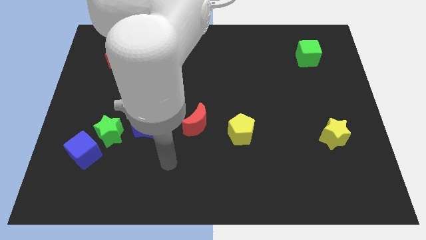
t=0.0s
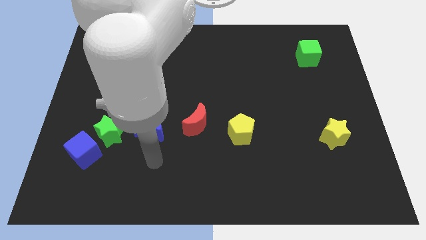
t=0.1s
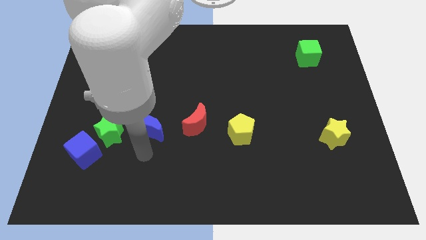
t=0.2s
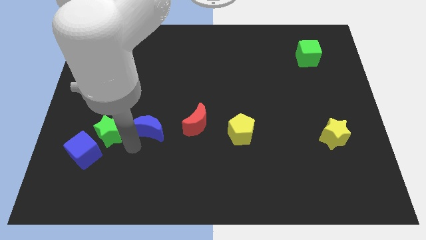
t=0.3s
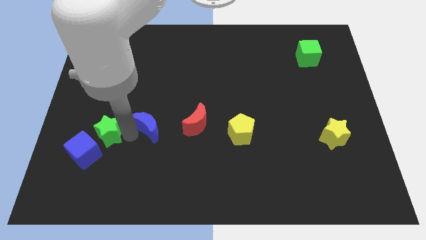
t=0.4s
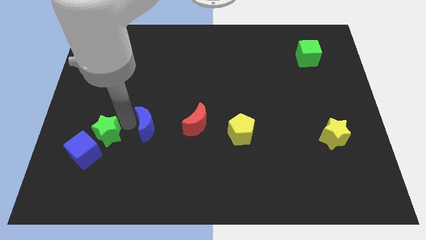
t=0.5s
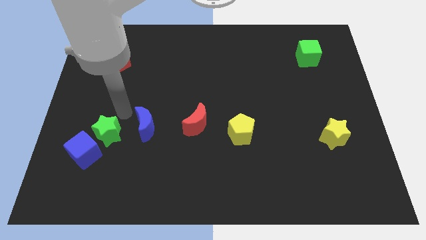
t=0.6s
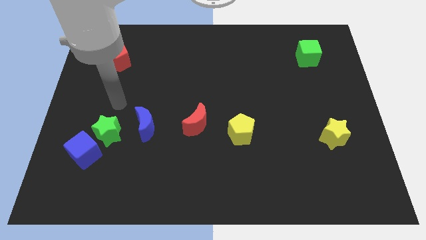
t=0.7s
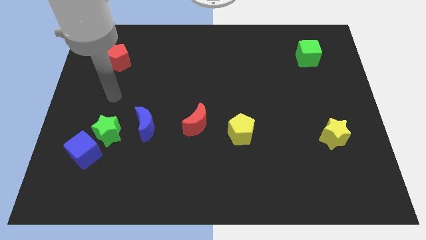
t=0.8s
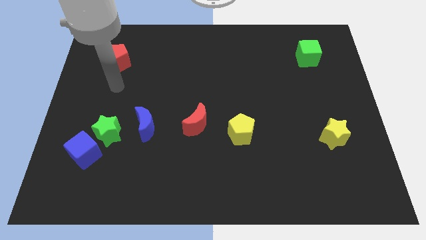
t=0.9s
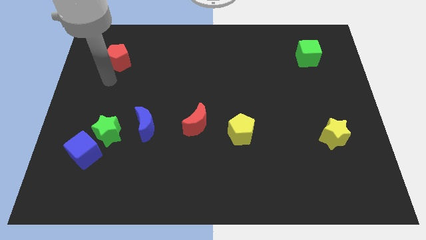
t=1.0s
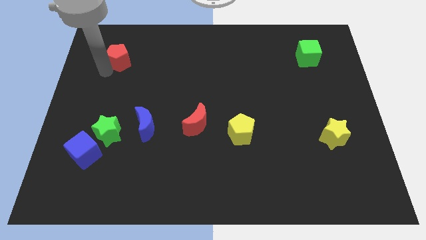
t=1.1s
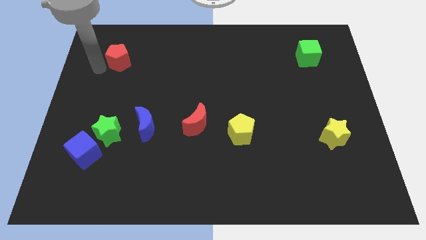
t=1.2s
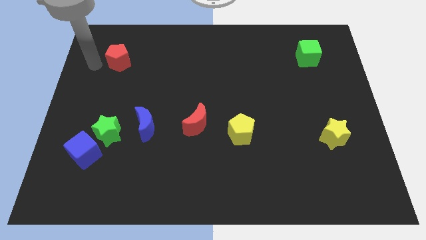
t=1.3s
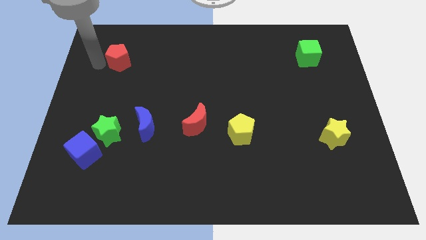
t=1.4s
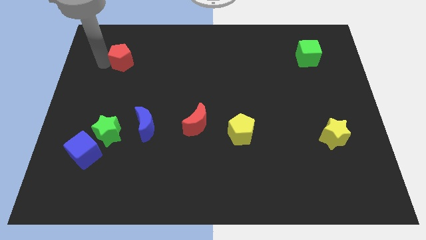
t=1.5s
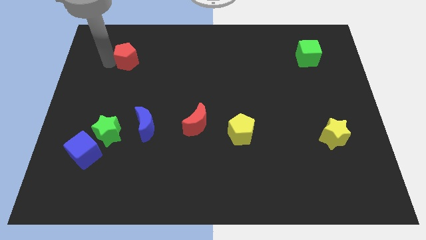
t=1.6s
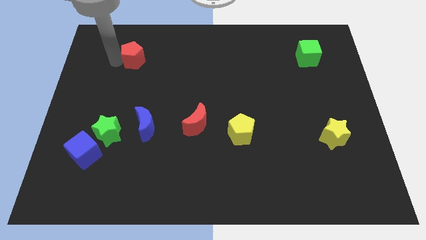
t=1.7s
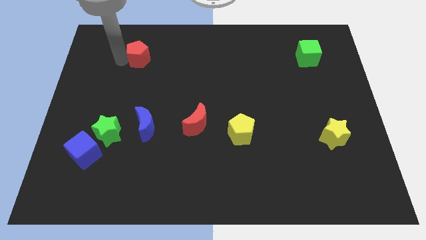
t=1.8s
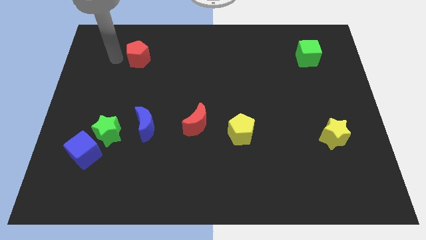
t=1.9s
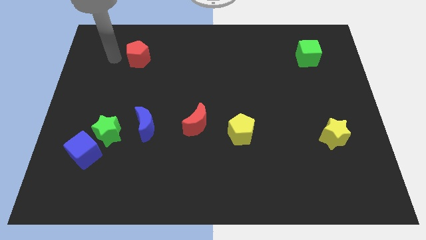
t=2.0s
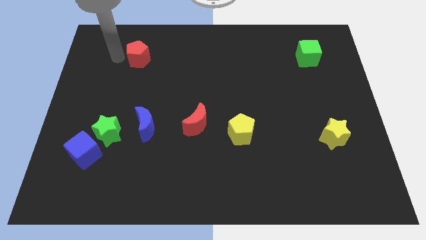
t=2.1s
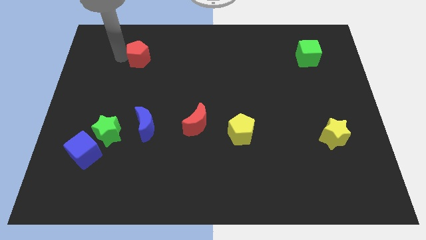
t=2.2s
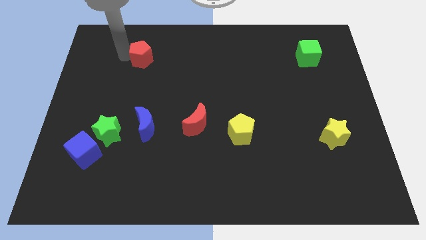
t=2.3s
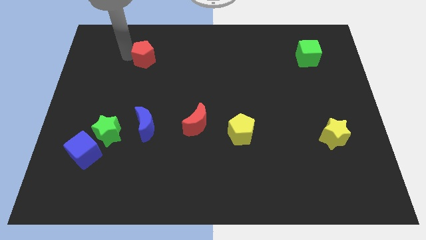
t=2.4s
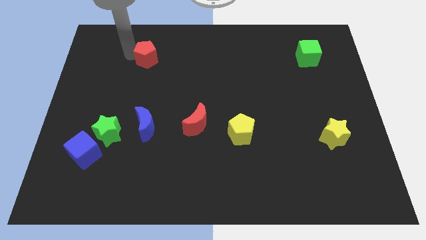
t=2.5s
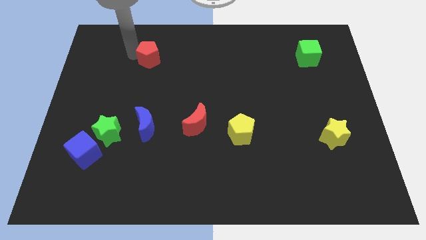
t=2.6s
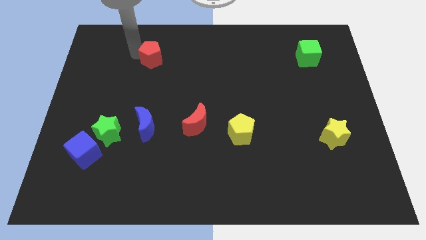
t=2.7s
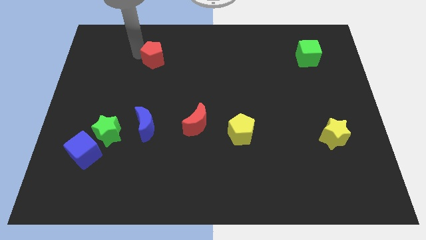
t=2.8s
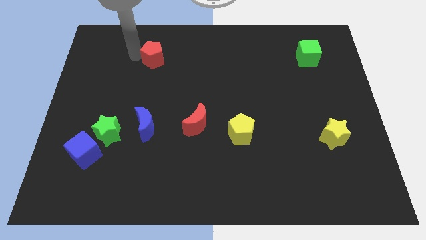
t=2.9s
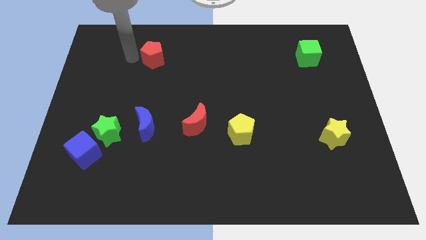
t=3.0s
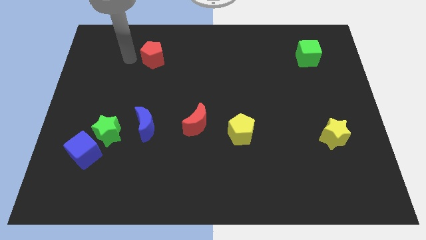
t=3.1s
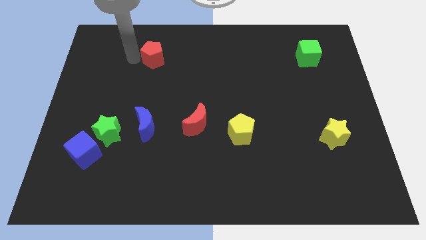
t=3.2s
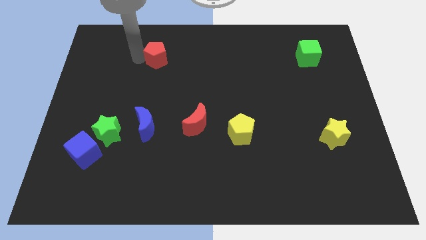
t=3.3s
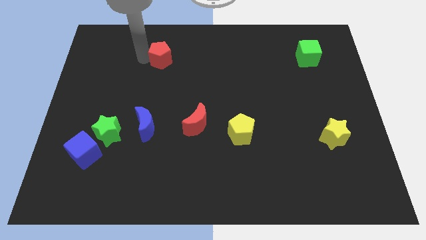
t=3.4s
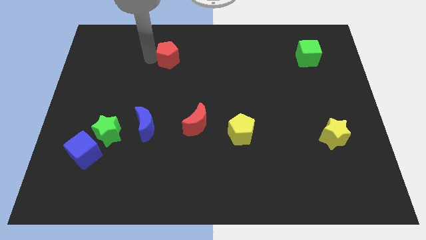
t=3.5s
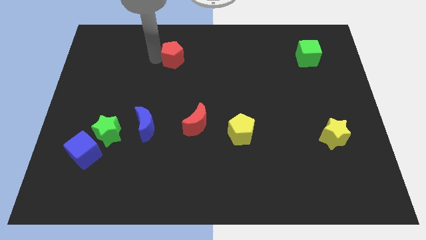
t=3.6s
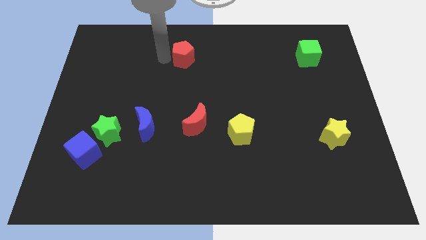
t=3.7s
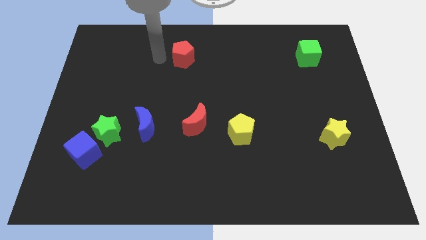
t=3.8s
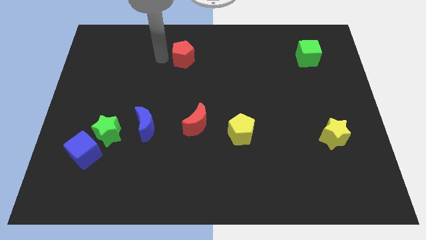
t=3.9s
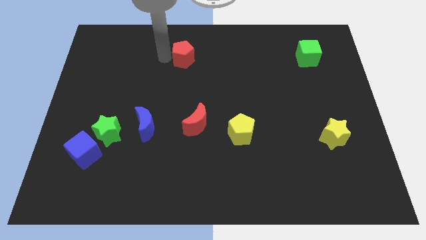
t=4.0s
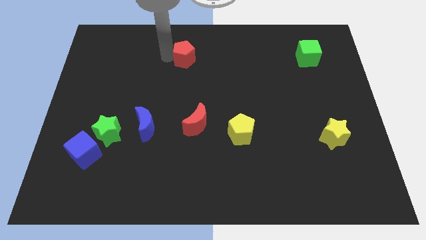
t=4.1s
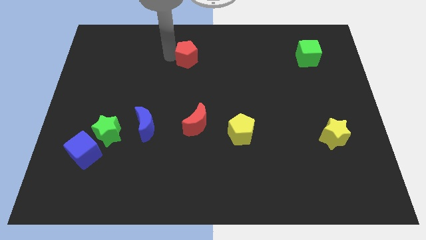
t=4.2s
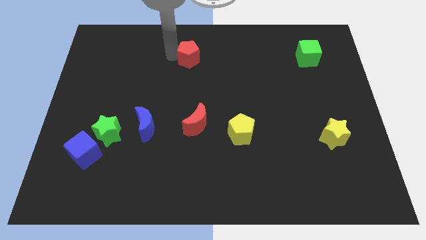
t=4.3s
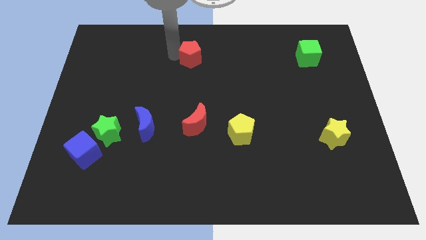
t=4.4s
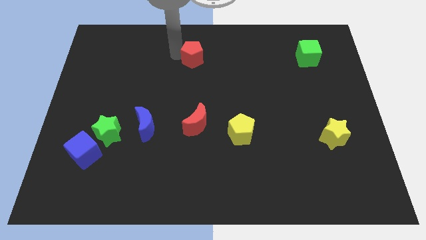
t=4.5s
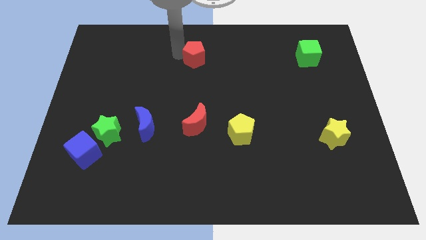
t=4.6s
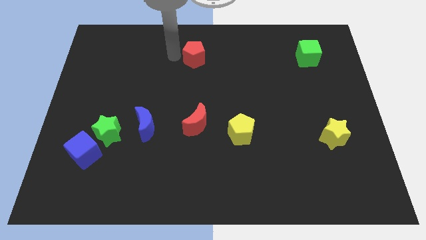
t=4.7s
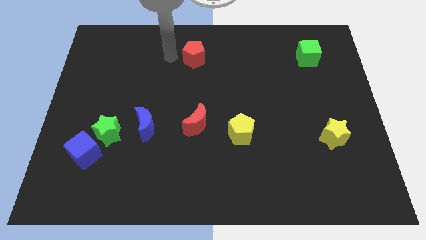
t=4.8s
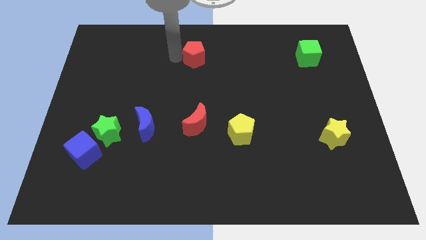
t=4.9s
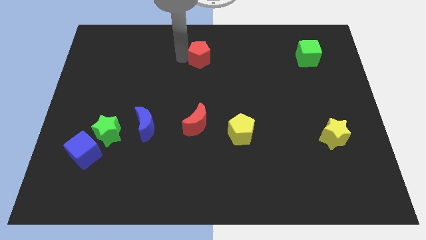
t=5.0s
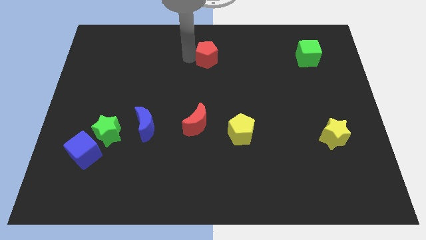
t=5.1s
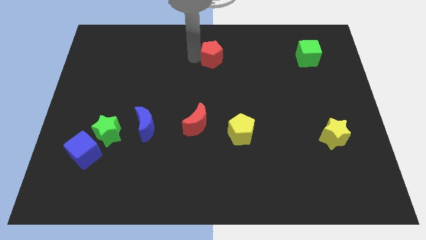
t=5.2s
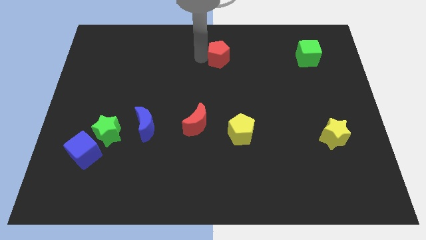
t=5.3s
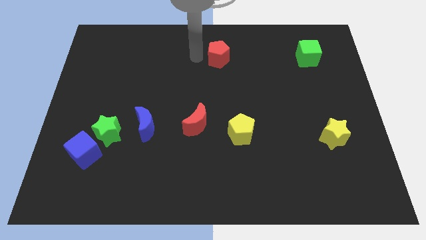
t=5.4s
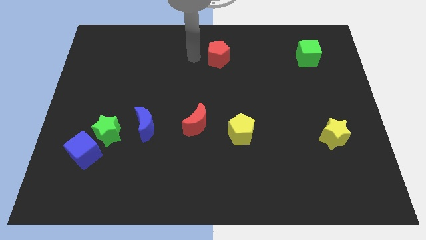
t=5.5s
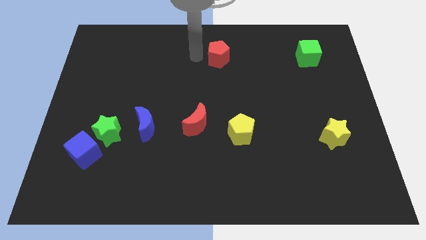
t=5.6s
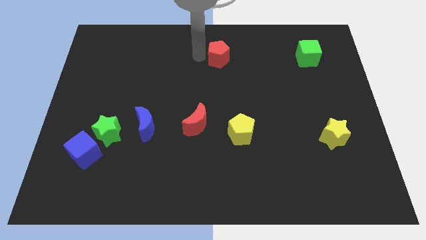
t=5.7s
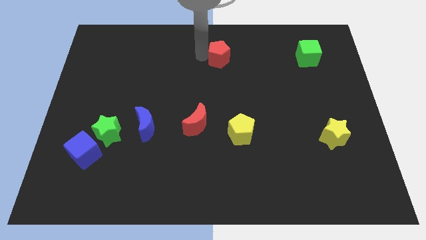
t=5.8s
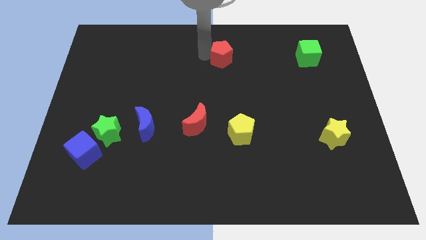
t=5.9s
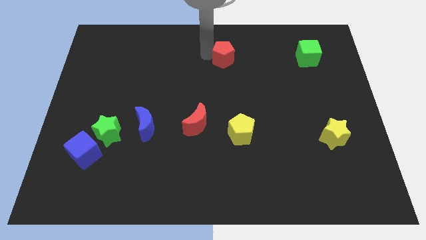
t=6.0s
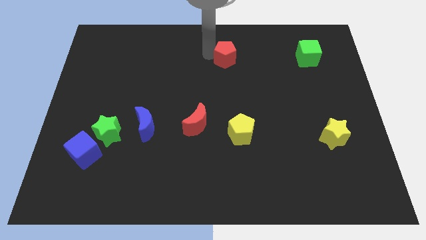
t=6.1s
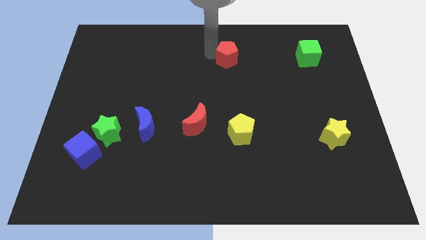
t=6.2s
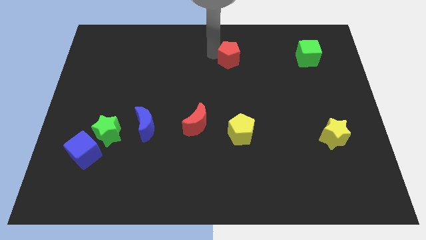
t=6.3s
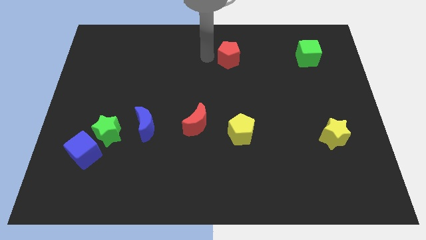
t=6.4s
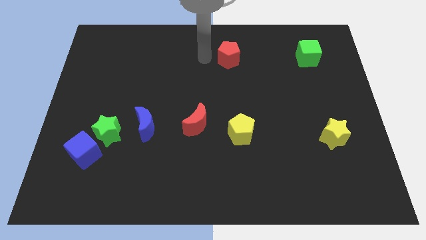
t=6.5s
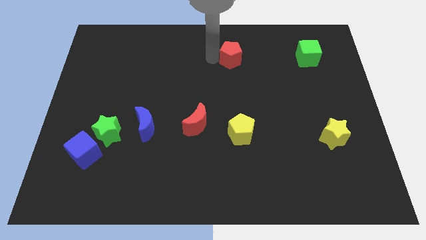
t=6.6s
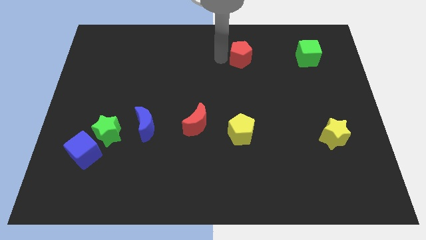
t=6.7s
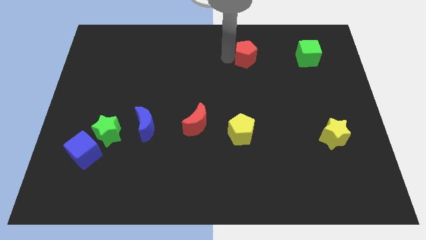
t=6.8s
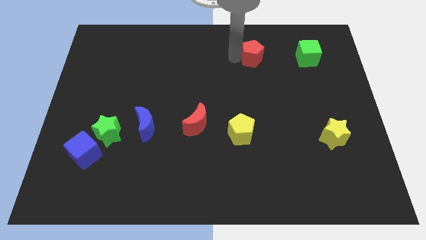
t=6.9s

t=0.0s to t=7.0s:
put the red pentagon left of the green cube
